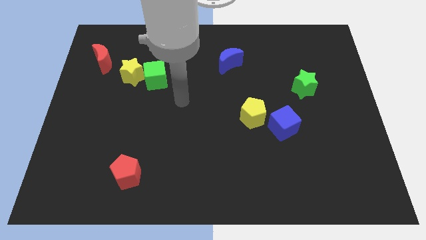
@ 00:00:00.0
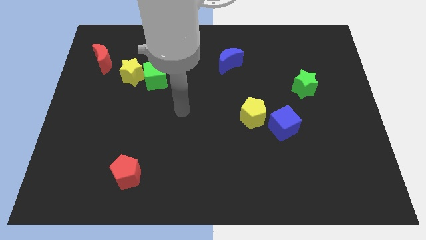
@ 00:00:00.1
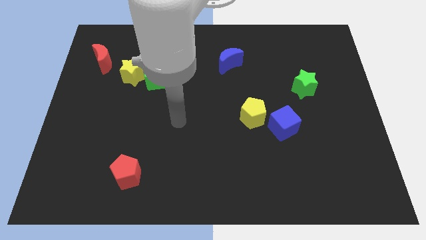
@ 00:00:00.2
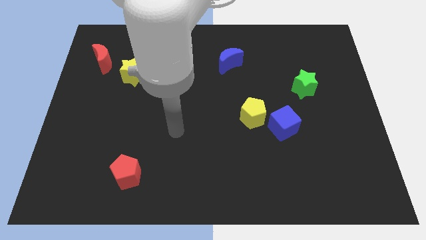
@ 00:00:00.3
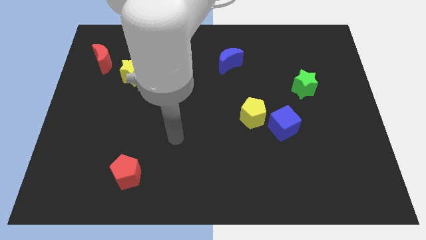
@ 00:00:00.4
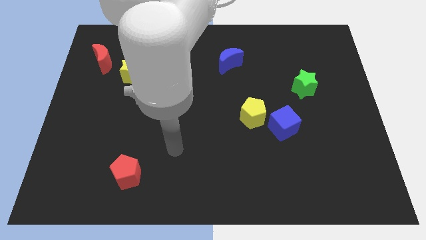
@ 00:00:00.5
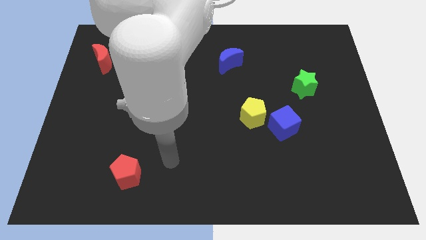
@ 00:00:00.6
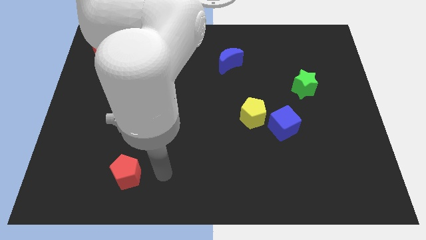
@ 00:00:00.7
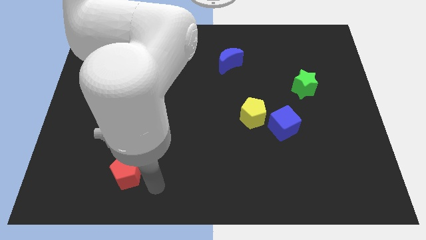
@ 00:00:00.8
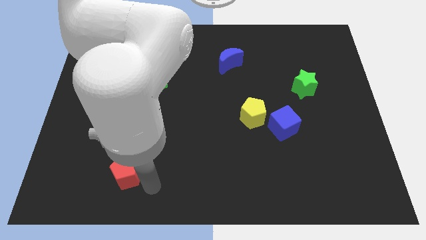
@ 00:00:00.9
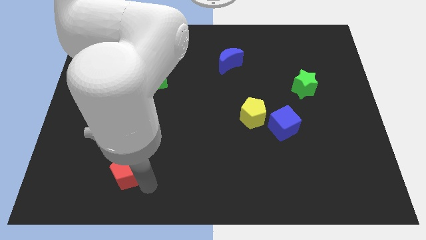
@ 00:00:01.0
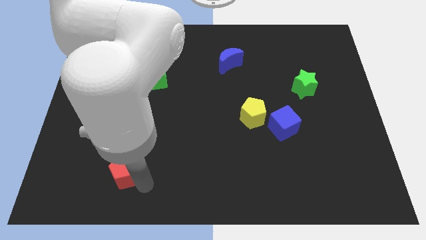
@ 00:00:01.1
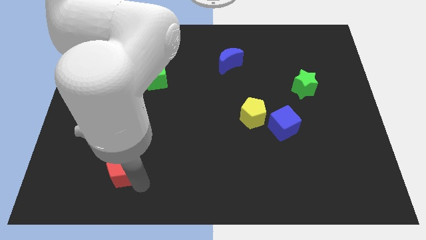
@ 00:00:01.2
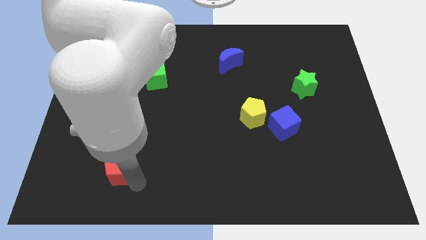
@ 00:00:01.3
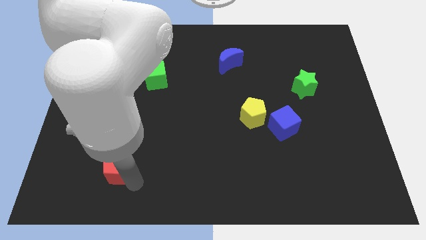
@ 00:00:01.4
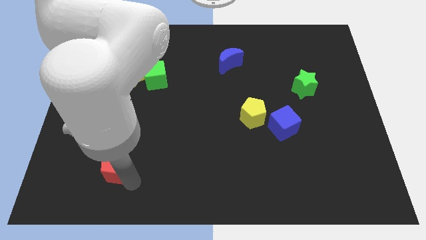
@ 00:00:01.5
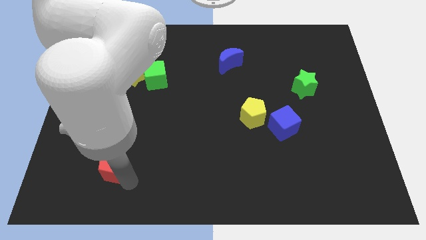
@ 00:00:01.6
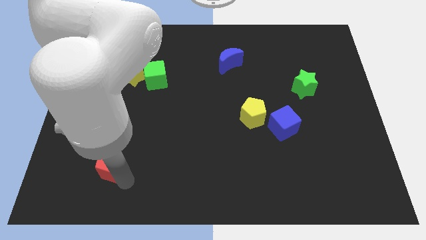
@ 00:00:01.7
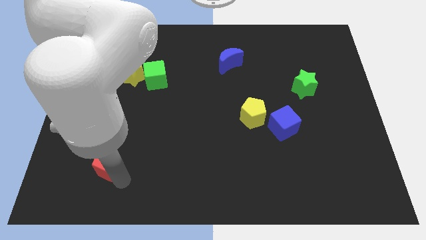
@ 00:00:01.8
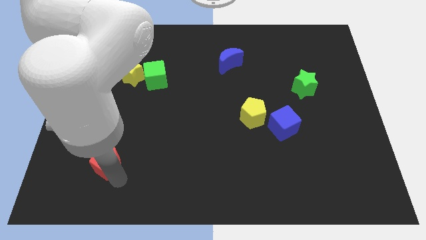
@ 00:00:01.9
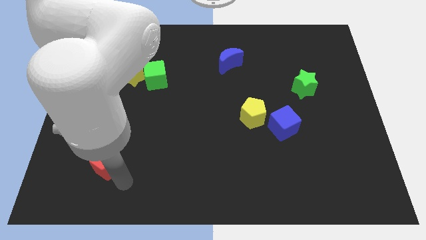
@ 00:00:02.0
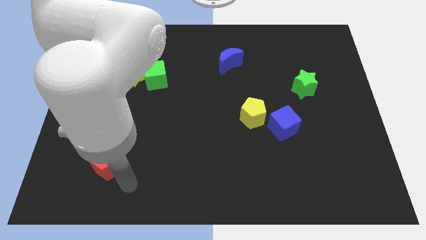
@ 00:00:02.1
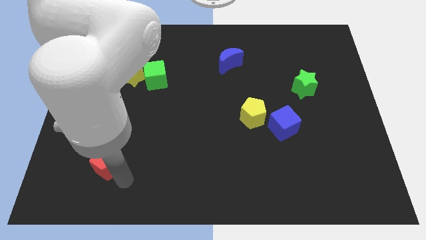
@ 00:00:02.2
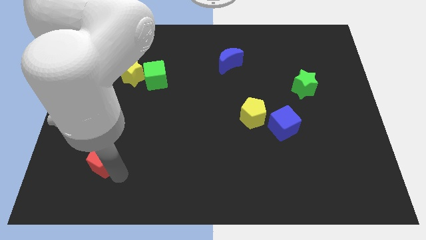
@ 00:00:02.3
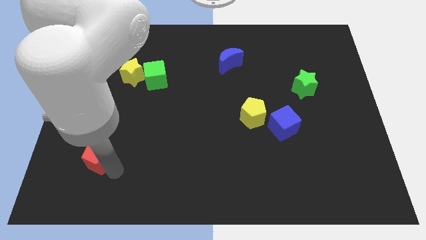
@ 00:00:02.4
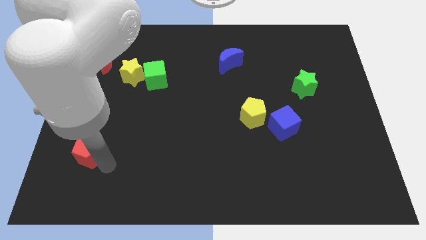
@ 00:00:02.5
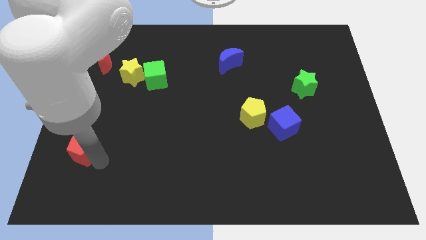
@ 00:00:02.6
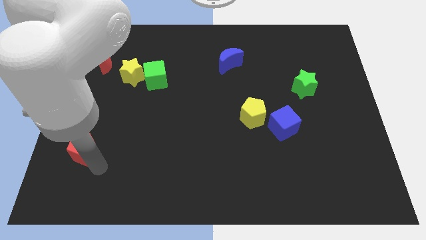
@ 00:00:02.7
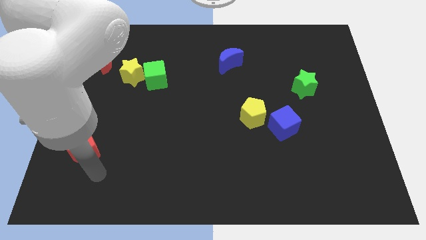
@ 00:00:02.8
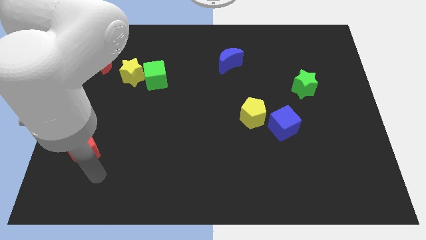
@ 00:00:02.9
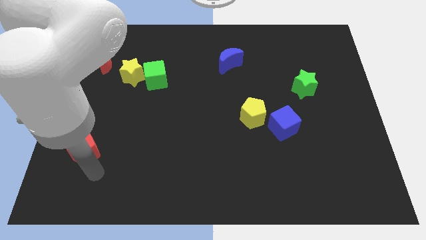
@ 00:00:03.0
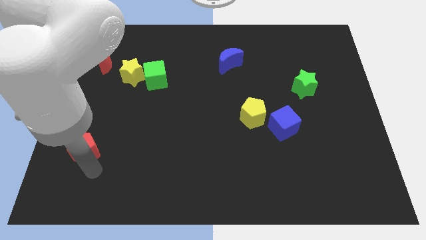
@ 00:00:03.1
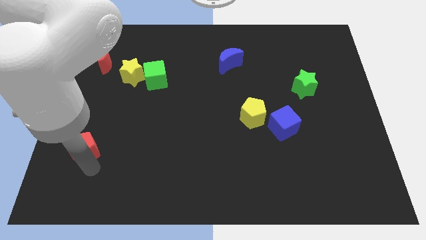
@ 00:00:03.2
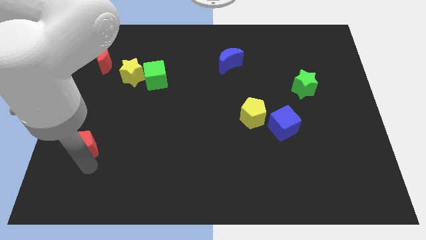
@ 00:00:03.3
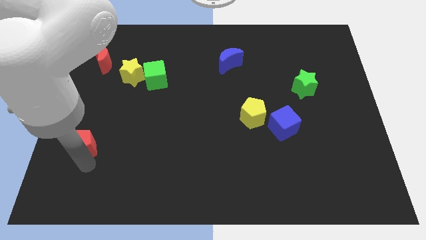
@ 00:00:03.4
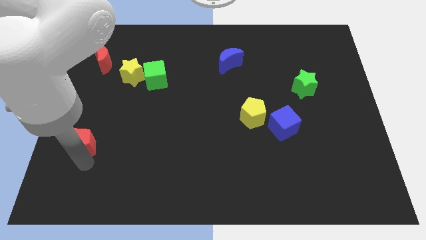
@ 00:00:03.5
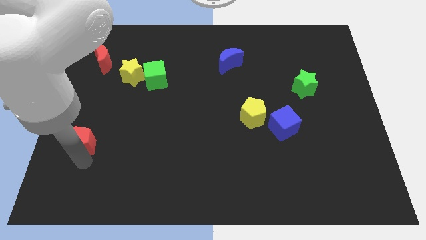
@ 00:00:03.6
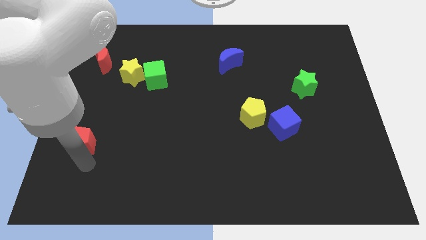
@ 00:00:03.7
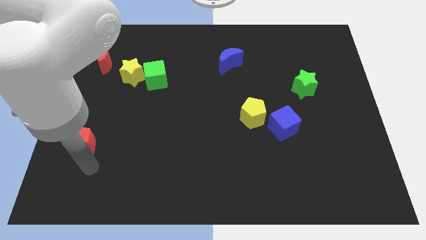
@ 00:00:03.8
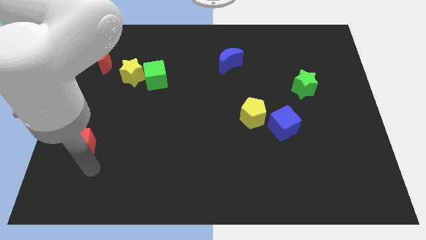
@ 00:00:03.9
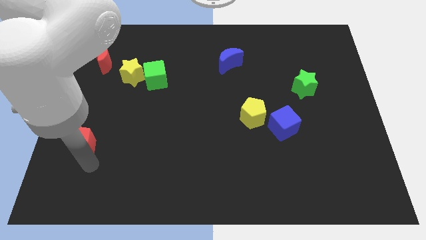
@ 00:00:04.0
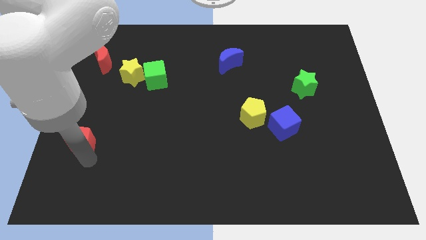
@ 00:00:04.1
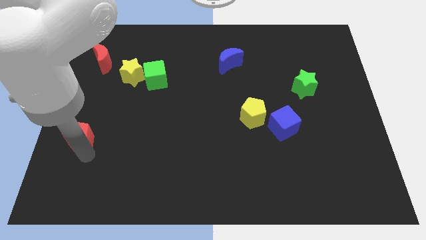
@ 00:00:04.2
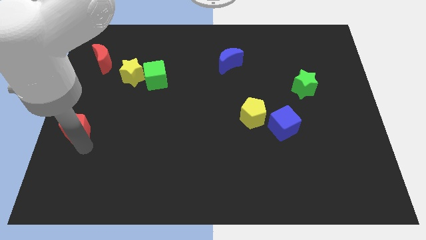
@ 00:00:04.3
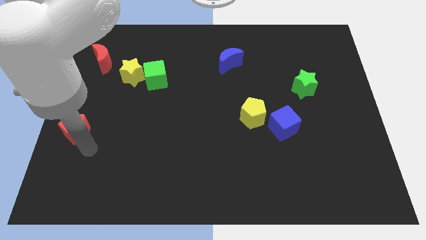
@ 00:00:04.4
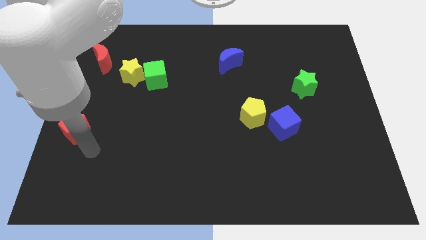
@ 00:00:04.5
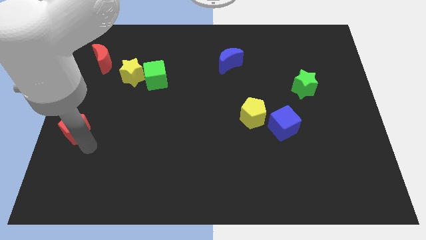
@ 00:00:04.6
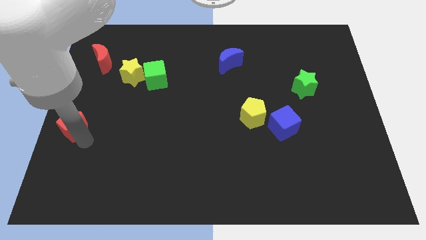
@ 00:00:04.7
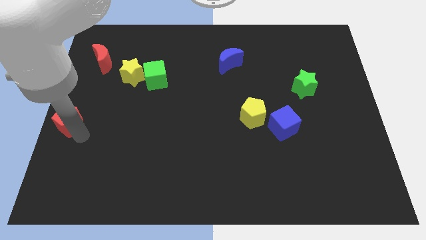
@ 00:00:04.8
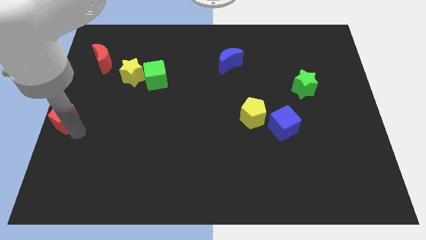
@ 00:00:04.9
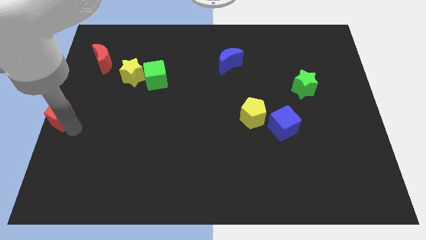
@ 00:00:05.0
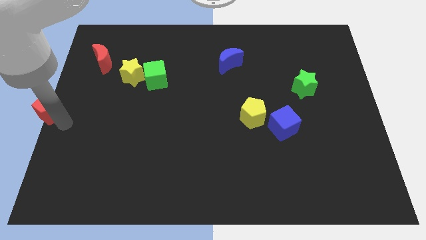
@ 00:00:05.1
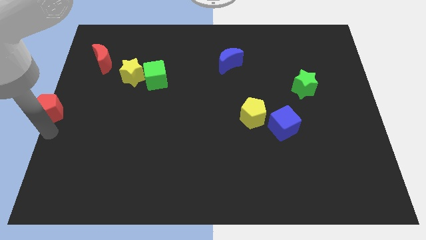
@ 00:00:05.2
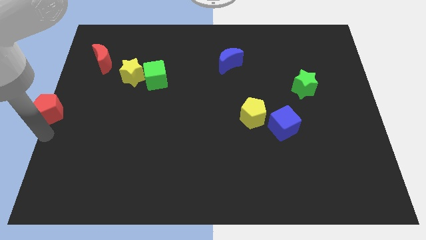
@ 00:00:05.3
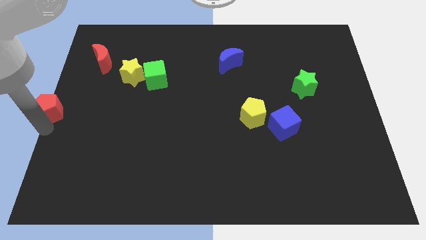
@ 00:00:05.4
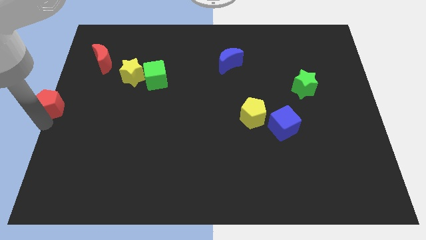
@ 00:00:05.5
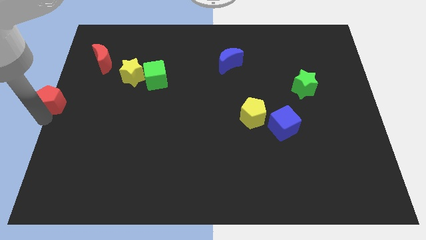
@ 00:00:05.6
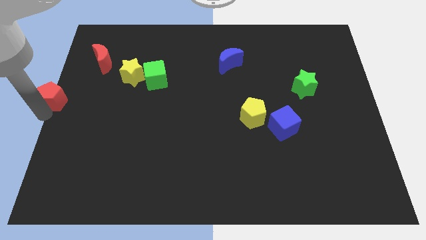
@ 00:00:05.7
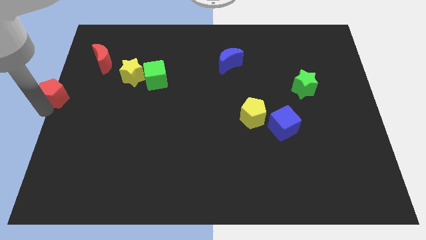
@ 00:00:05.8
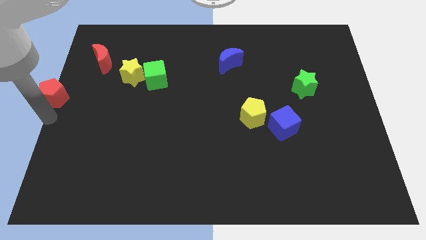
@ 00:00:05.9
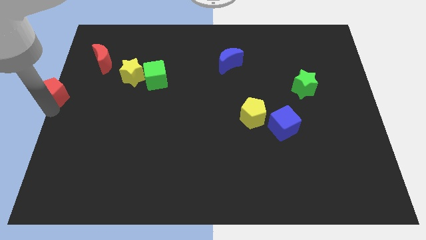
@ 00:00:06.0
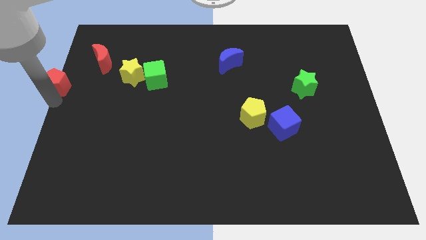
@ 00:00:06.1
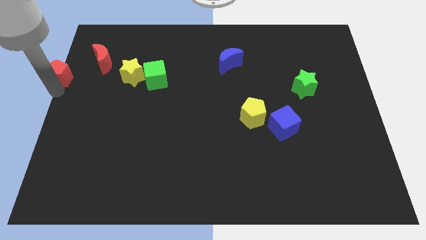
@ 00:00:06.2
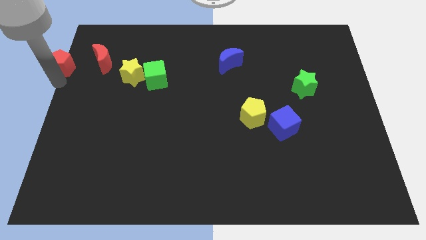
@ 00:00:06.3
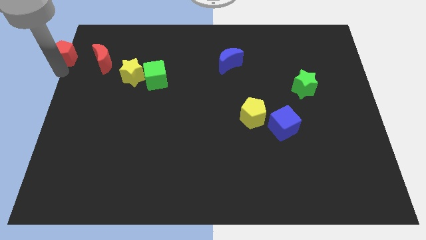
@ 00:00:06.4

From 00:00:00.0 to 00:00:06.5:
put the red pentagon to the top left corner

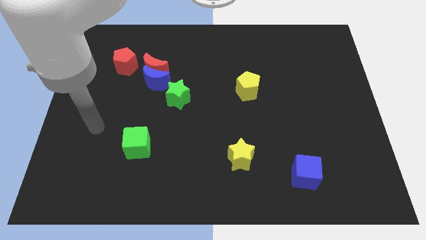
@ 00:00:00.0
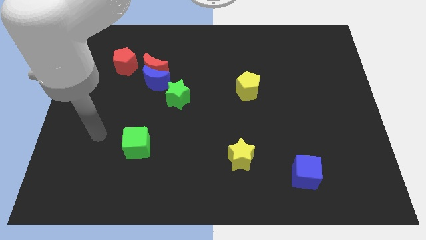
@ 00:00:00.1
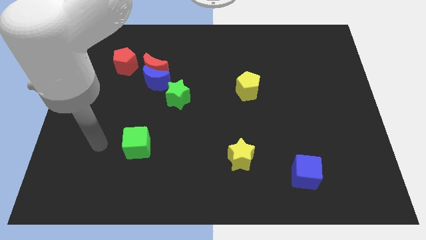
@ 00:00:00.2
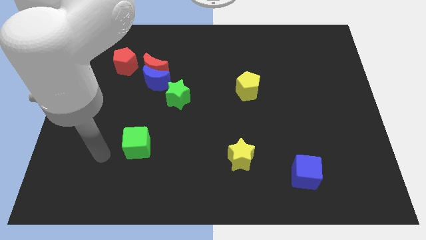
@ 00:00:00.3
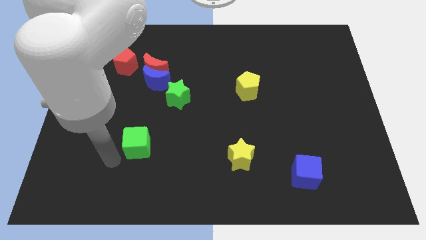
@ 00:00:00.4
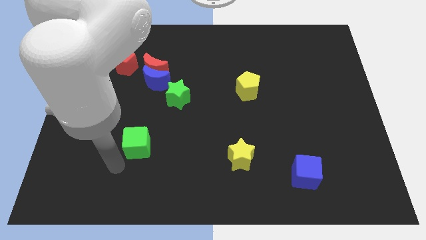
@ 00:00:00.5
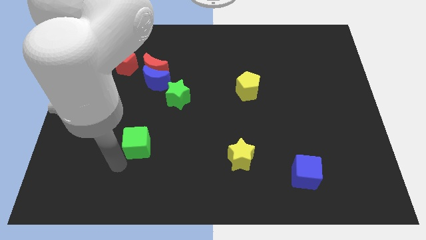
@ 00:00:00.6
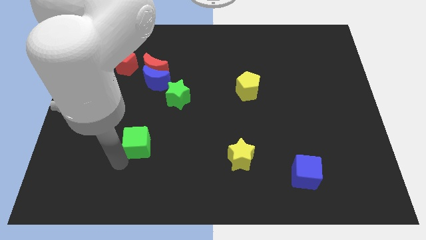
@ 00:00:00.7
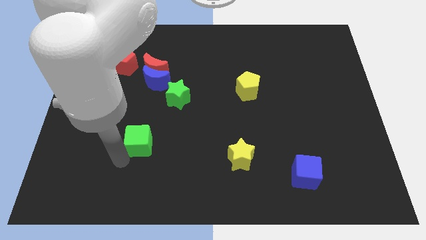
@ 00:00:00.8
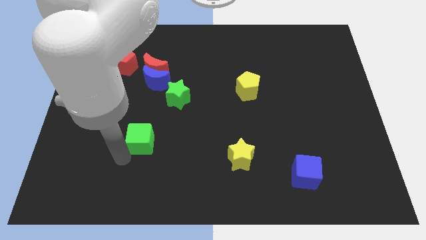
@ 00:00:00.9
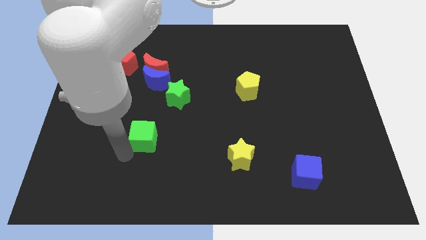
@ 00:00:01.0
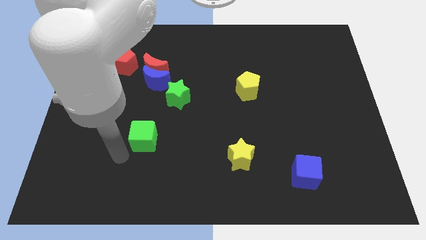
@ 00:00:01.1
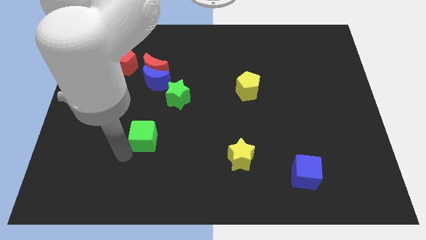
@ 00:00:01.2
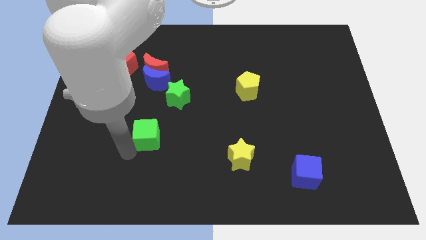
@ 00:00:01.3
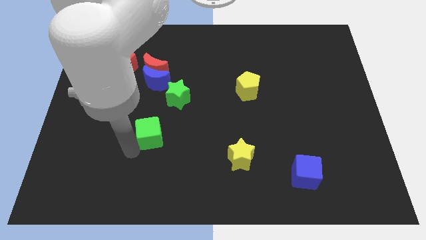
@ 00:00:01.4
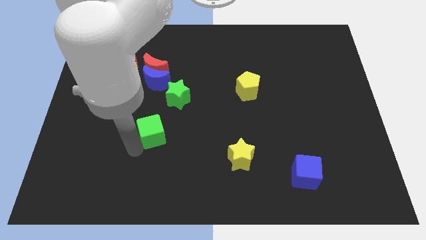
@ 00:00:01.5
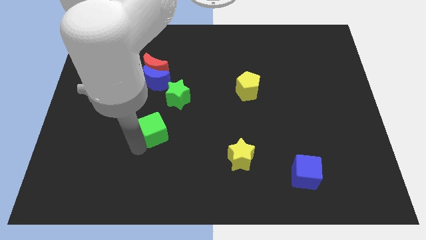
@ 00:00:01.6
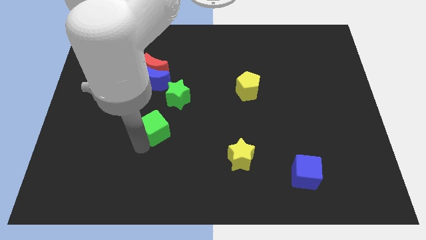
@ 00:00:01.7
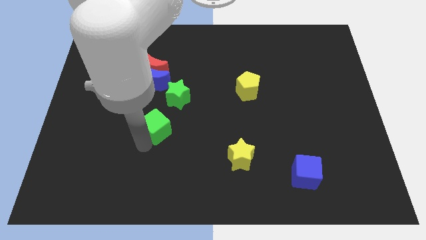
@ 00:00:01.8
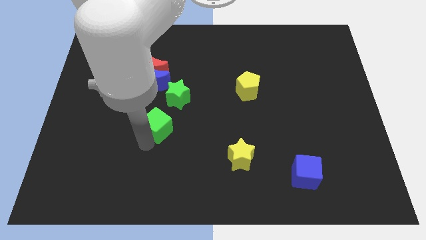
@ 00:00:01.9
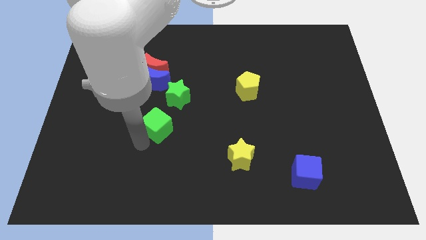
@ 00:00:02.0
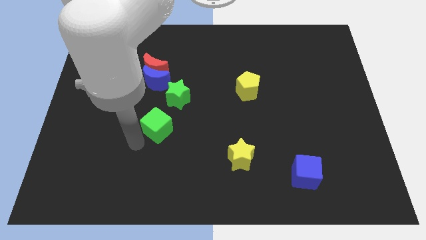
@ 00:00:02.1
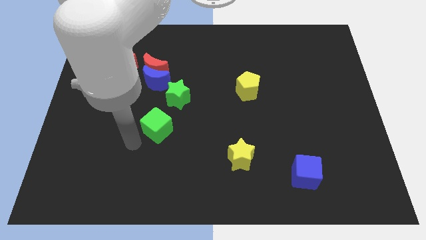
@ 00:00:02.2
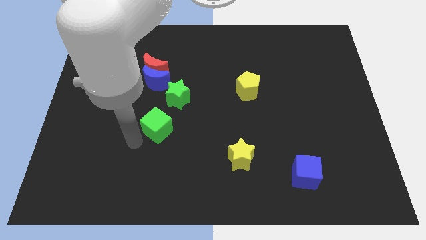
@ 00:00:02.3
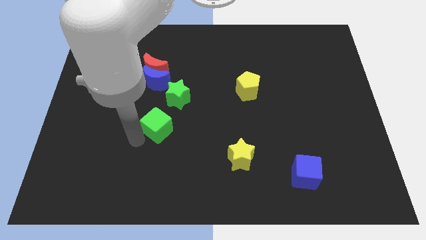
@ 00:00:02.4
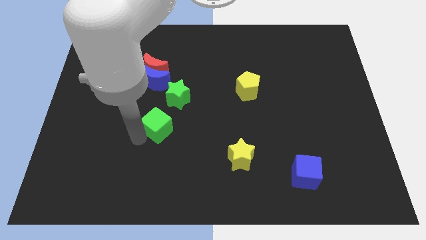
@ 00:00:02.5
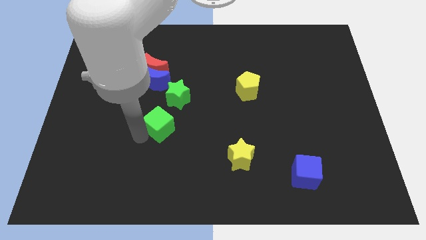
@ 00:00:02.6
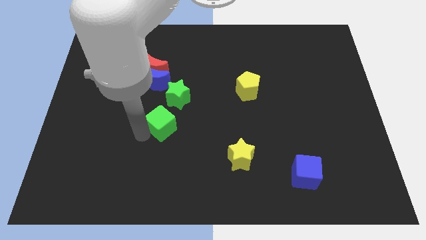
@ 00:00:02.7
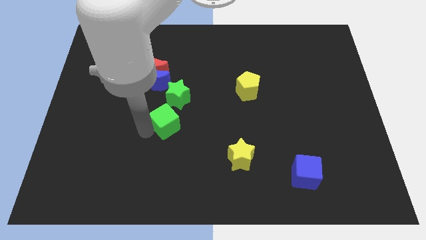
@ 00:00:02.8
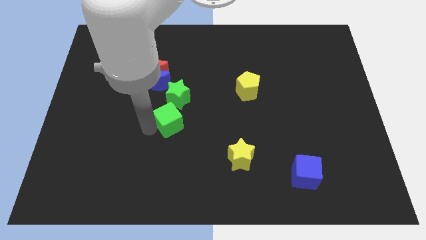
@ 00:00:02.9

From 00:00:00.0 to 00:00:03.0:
move the green cube to the center of the board
